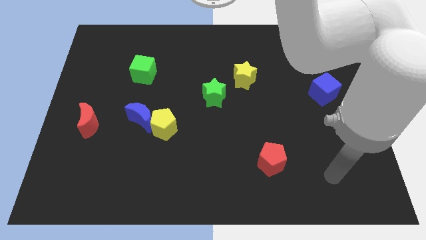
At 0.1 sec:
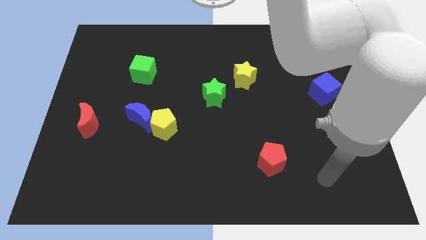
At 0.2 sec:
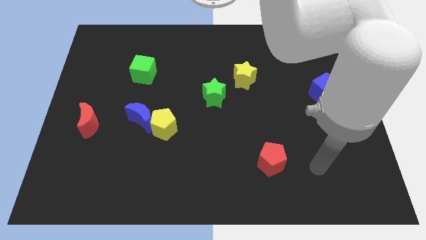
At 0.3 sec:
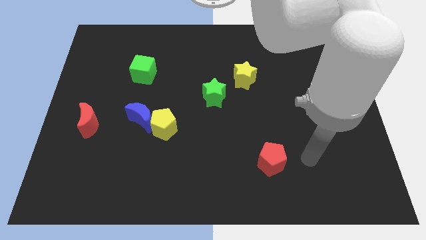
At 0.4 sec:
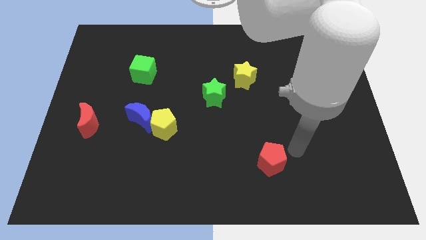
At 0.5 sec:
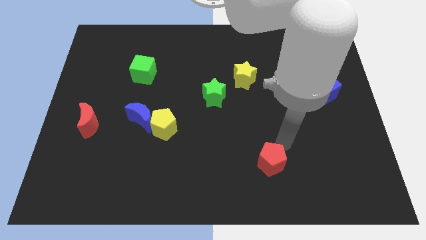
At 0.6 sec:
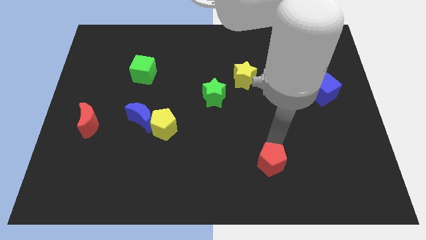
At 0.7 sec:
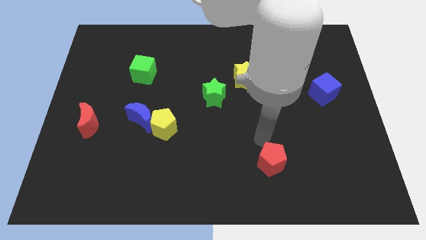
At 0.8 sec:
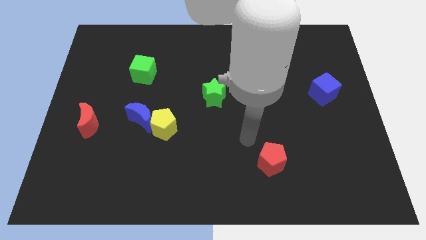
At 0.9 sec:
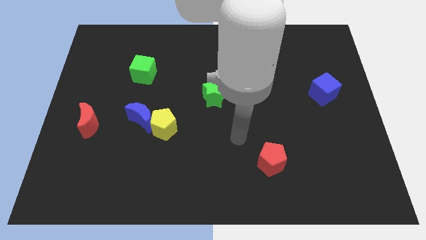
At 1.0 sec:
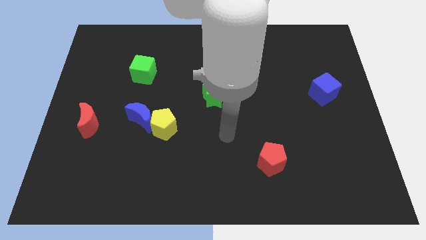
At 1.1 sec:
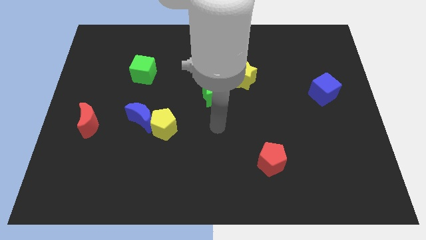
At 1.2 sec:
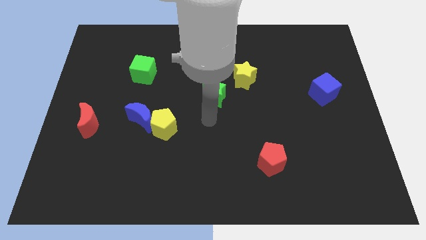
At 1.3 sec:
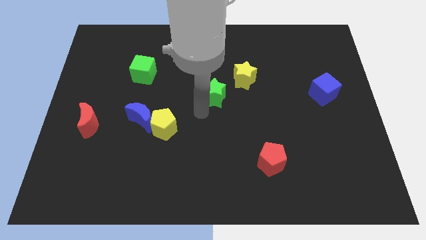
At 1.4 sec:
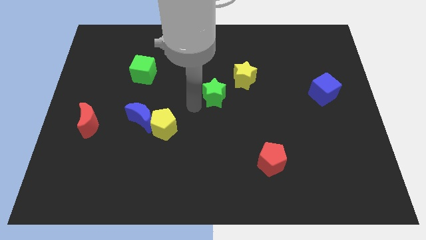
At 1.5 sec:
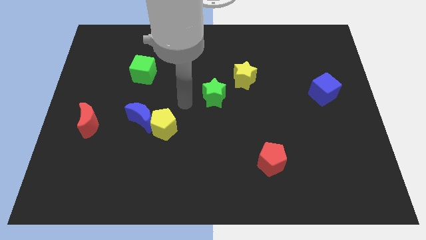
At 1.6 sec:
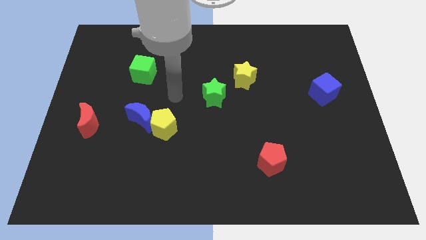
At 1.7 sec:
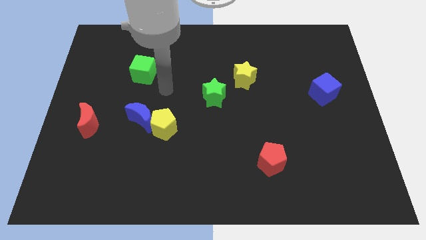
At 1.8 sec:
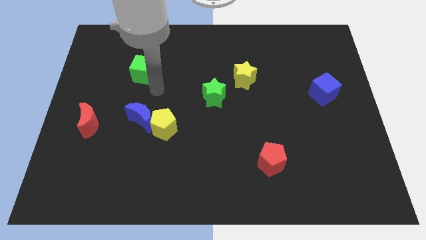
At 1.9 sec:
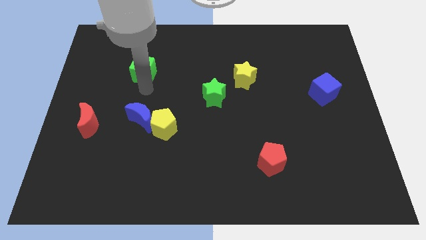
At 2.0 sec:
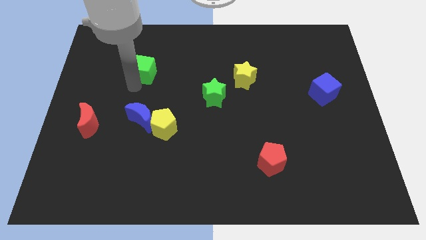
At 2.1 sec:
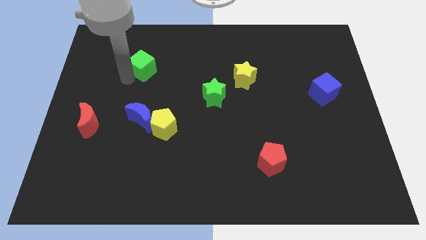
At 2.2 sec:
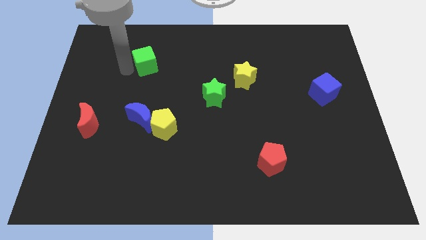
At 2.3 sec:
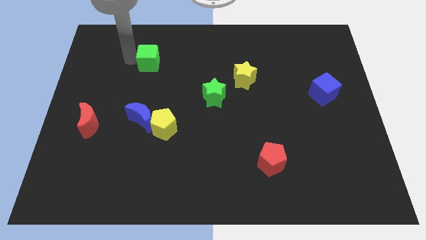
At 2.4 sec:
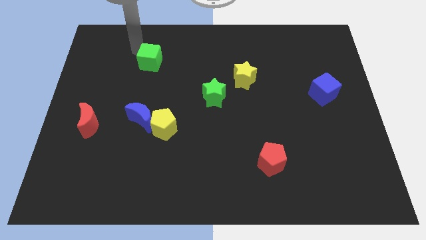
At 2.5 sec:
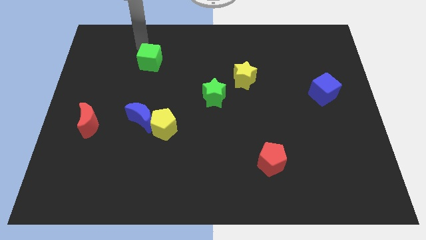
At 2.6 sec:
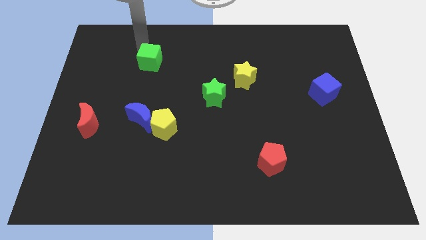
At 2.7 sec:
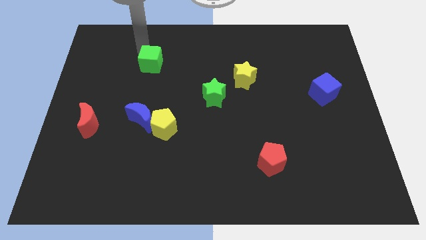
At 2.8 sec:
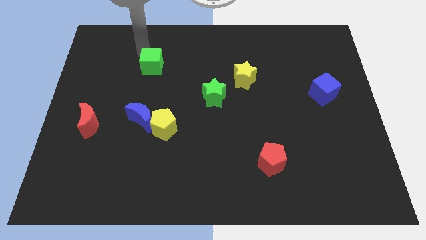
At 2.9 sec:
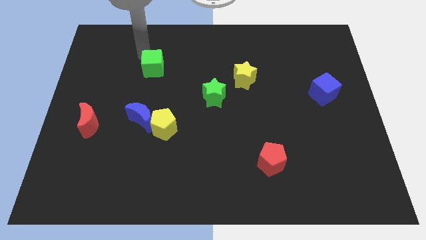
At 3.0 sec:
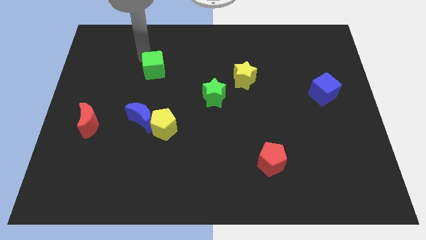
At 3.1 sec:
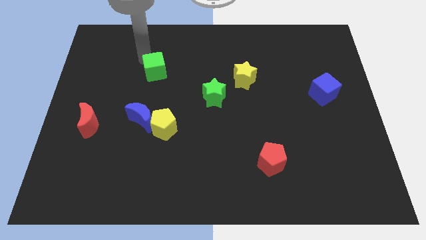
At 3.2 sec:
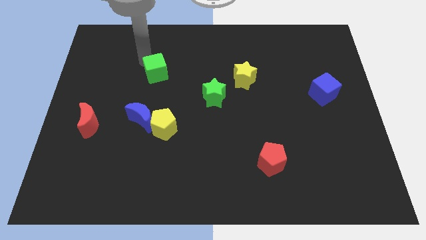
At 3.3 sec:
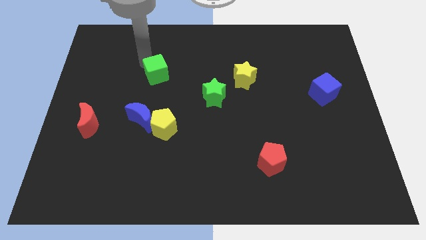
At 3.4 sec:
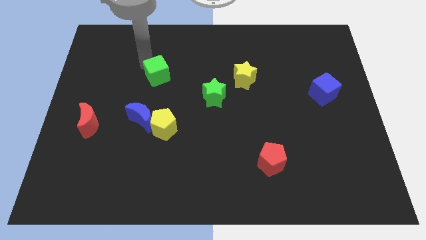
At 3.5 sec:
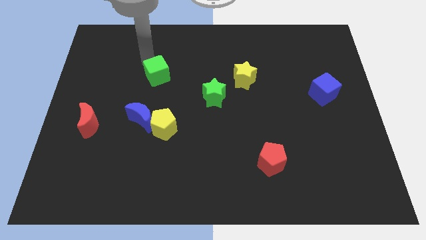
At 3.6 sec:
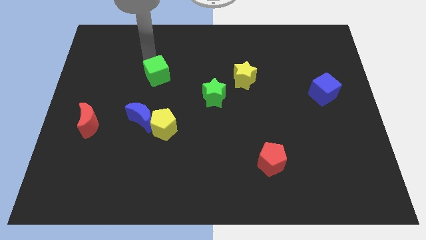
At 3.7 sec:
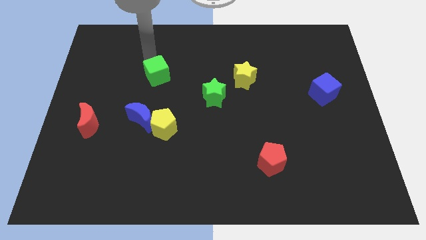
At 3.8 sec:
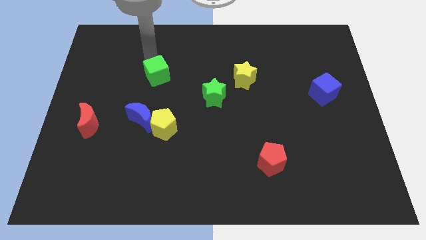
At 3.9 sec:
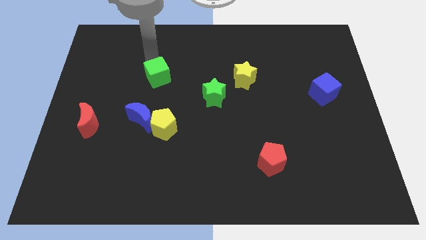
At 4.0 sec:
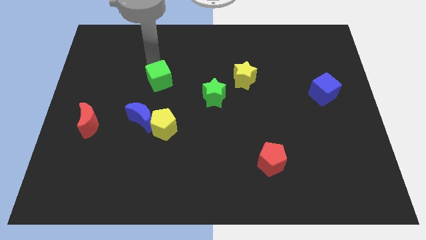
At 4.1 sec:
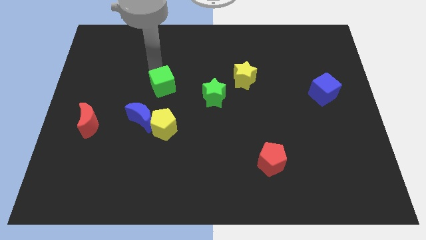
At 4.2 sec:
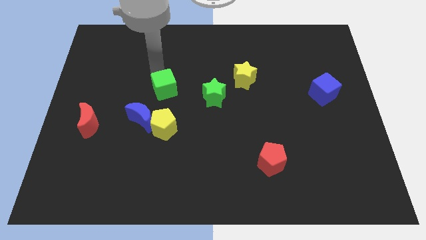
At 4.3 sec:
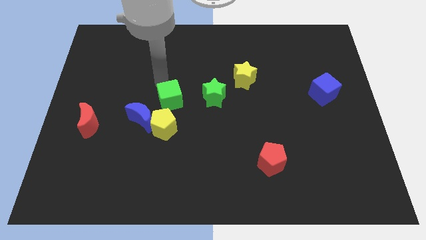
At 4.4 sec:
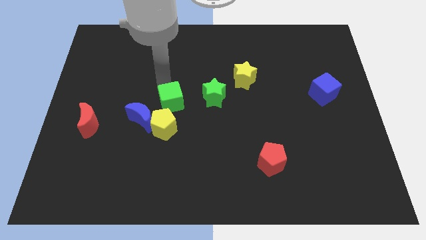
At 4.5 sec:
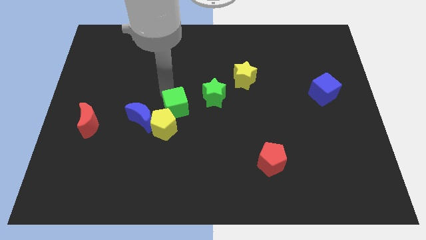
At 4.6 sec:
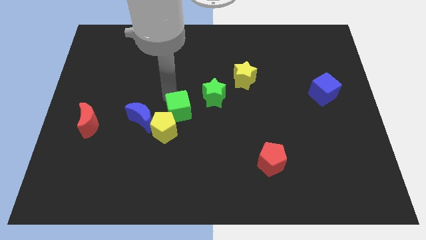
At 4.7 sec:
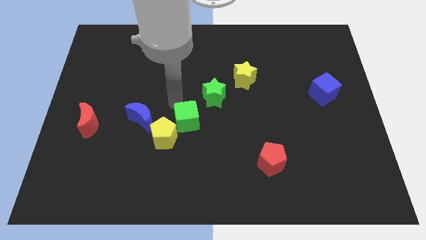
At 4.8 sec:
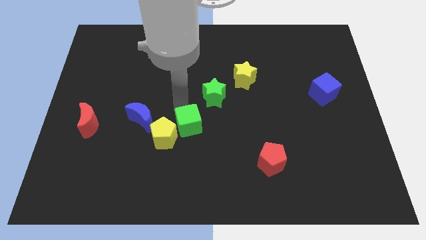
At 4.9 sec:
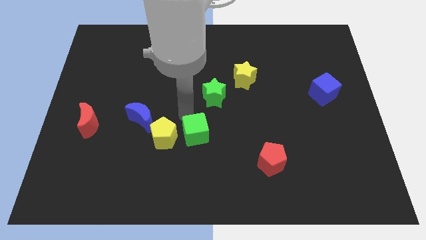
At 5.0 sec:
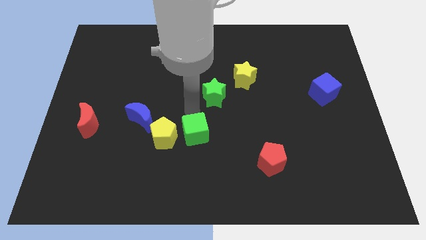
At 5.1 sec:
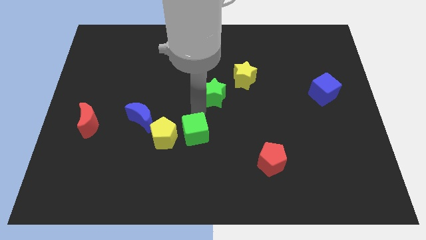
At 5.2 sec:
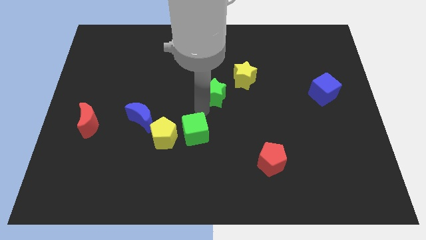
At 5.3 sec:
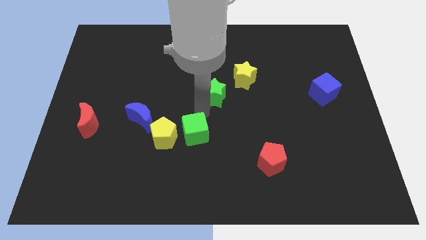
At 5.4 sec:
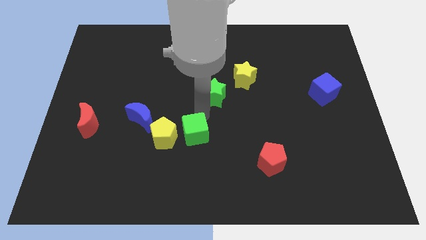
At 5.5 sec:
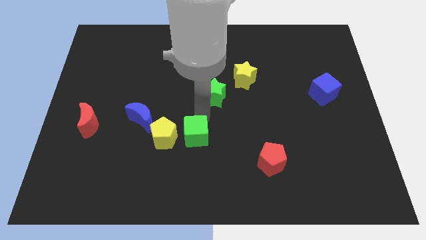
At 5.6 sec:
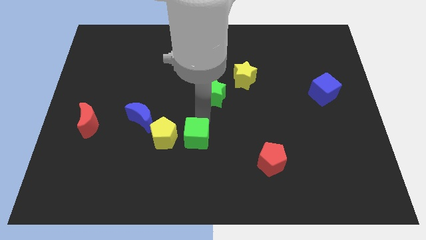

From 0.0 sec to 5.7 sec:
slide the green cube to the bottom right of the yellow pentagon

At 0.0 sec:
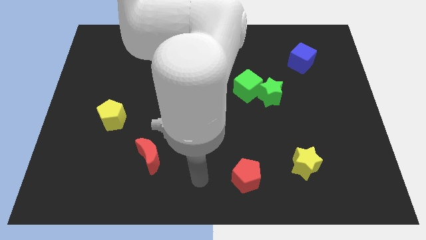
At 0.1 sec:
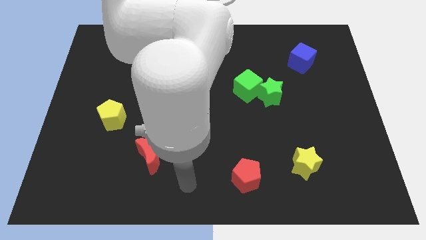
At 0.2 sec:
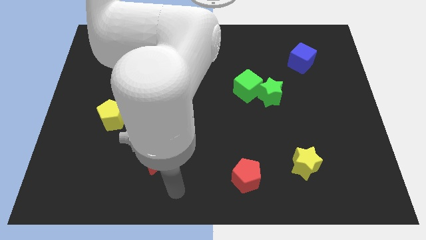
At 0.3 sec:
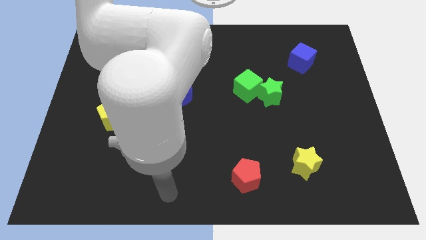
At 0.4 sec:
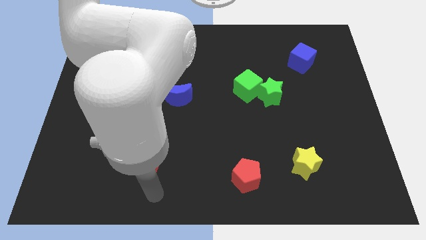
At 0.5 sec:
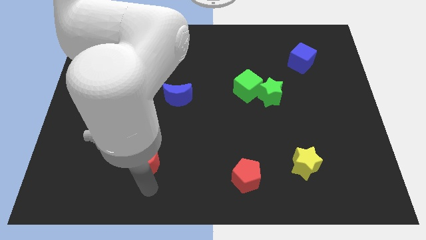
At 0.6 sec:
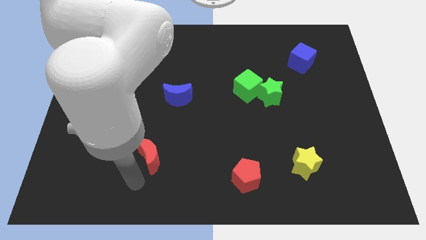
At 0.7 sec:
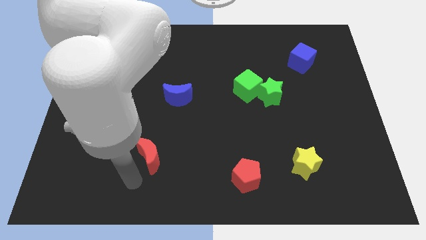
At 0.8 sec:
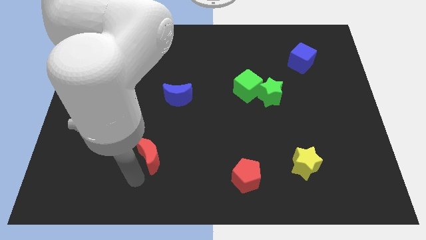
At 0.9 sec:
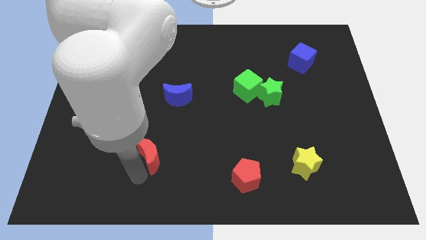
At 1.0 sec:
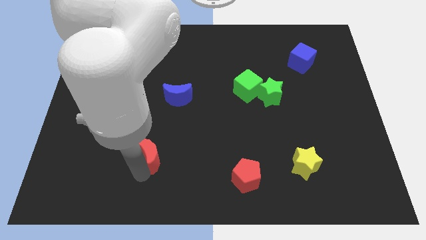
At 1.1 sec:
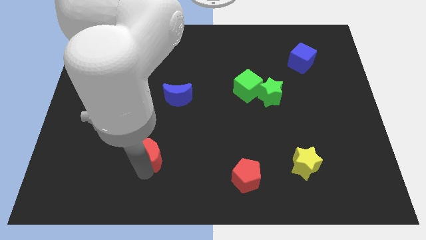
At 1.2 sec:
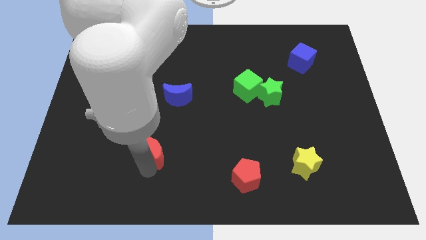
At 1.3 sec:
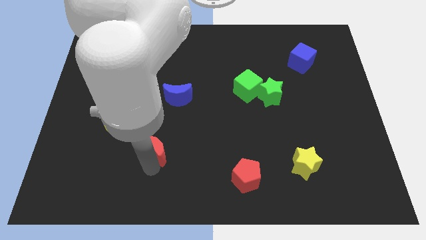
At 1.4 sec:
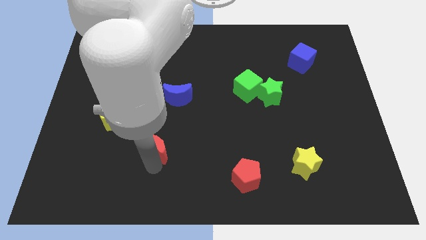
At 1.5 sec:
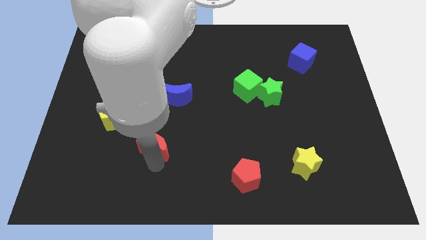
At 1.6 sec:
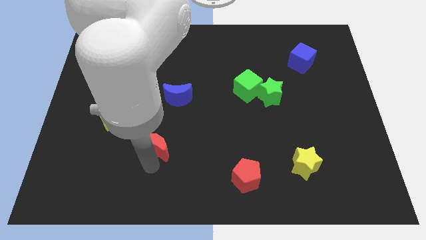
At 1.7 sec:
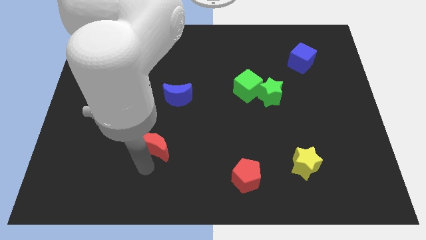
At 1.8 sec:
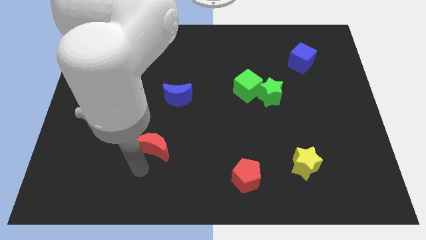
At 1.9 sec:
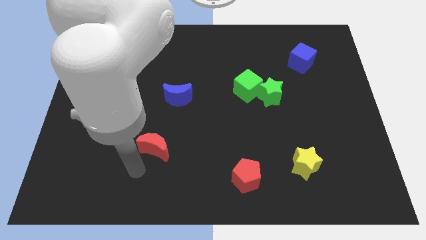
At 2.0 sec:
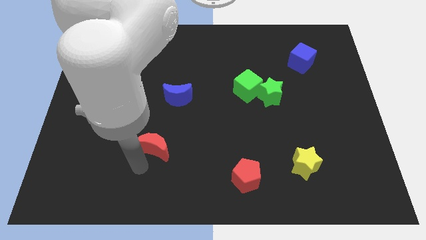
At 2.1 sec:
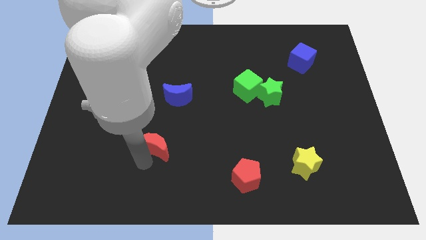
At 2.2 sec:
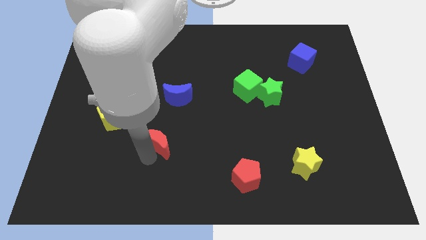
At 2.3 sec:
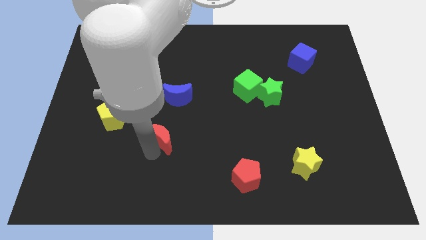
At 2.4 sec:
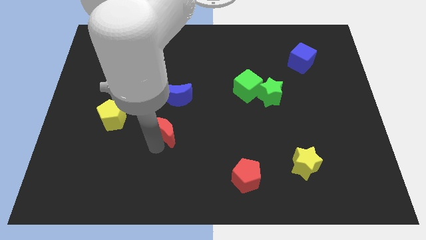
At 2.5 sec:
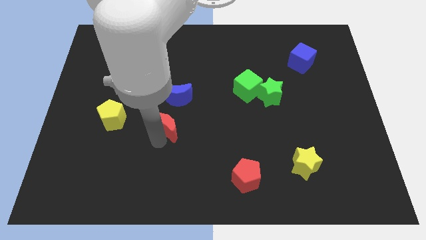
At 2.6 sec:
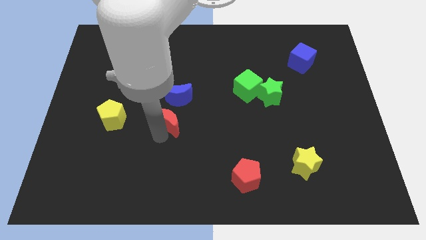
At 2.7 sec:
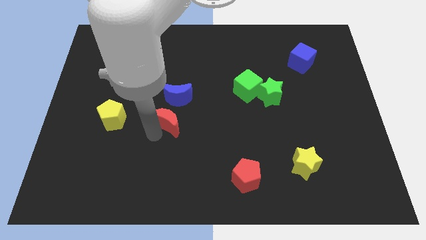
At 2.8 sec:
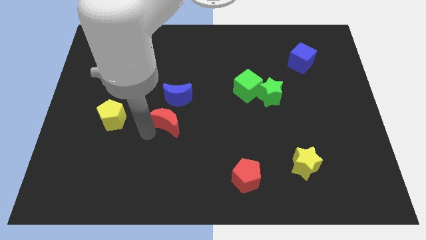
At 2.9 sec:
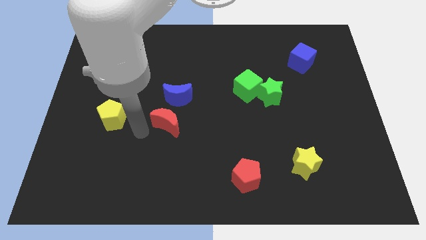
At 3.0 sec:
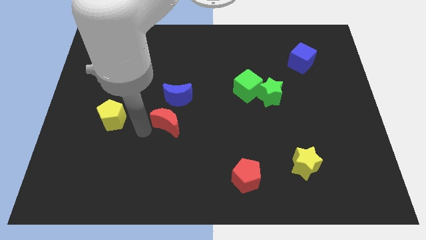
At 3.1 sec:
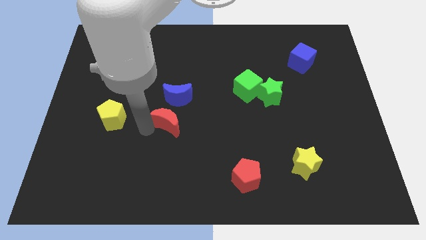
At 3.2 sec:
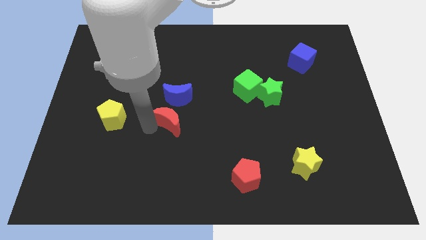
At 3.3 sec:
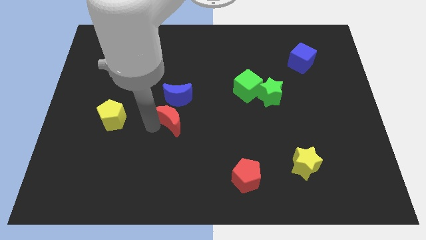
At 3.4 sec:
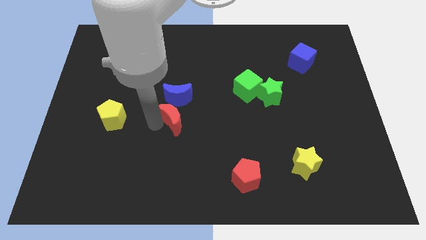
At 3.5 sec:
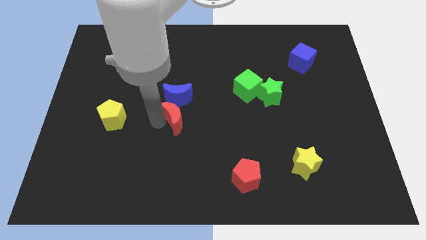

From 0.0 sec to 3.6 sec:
push the red moon to the bottom right of the blue moon
